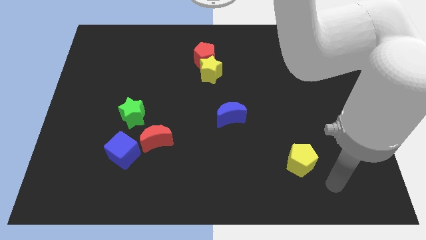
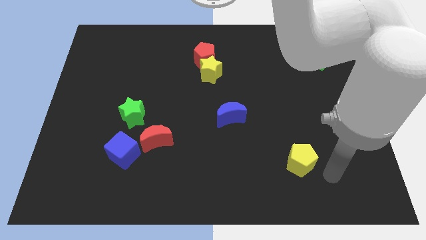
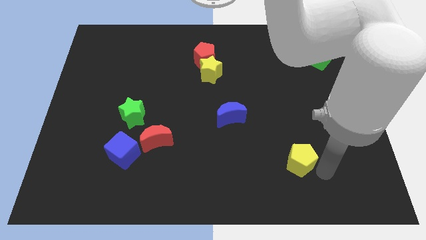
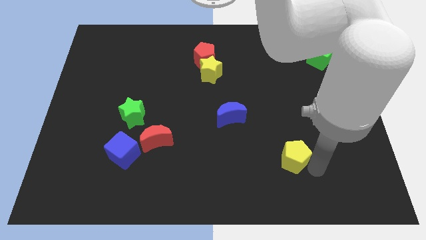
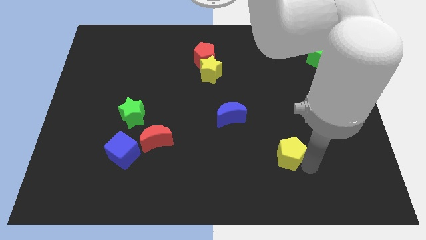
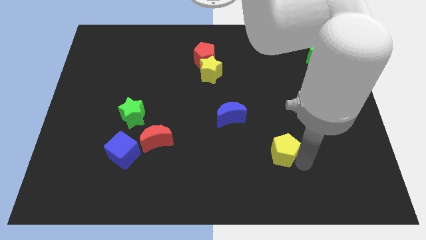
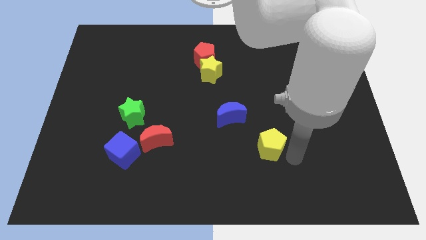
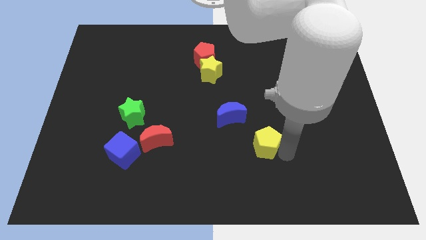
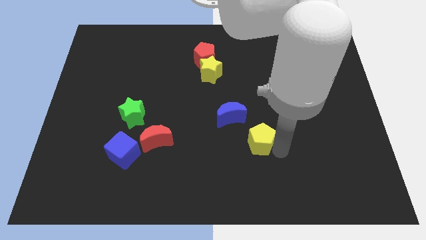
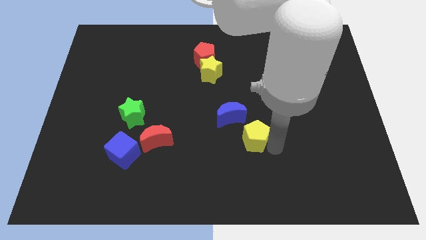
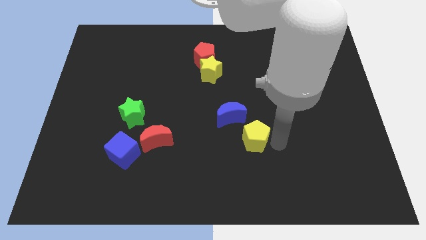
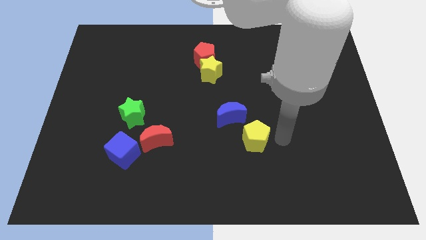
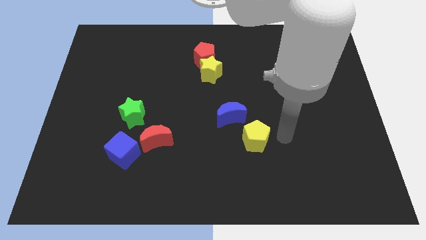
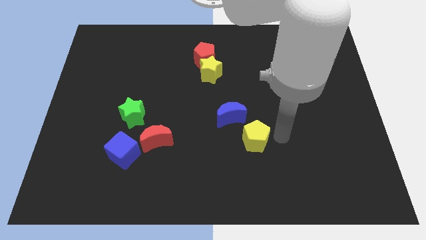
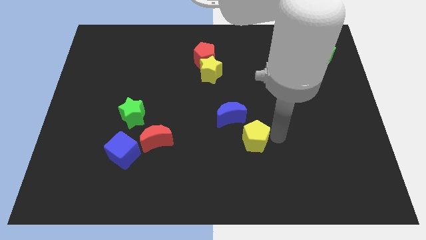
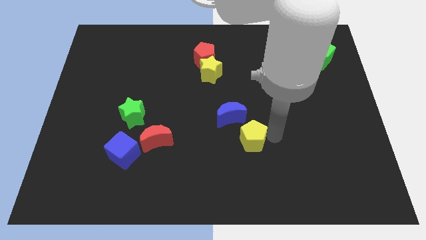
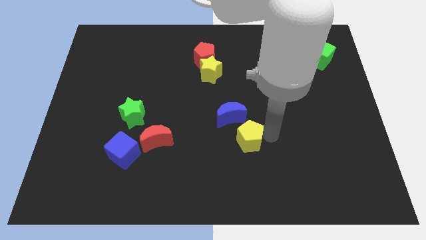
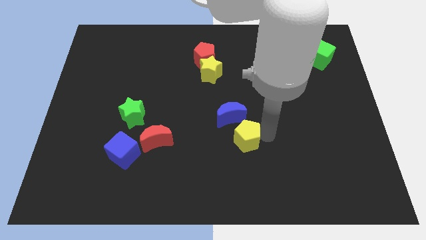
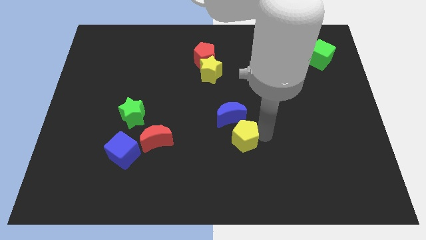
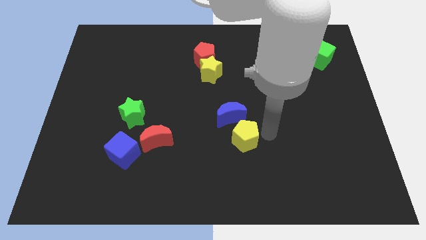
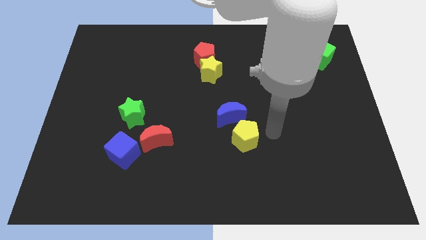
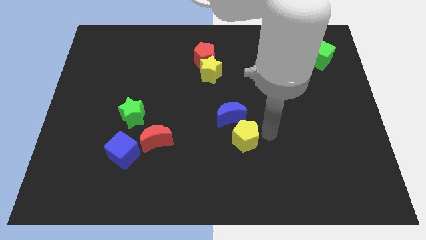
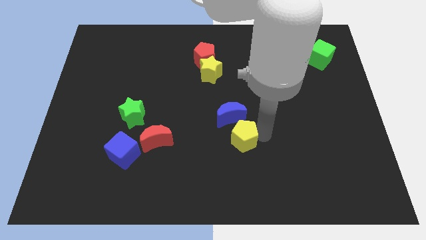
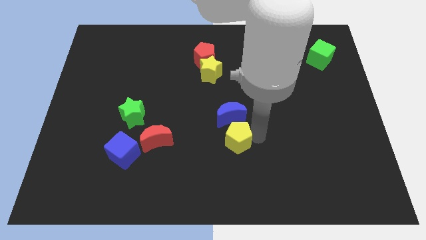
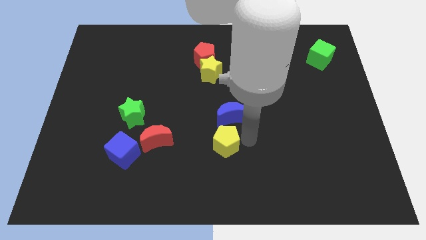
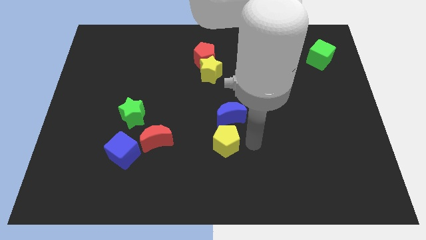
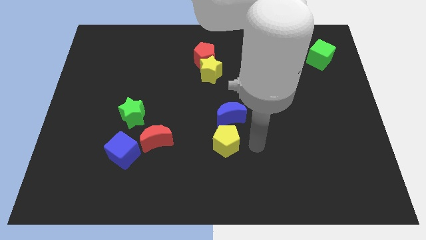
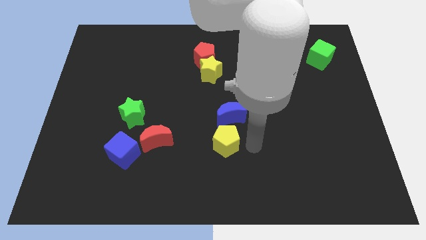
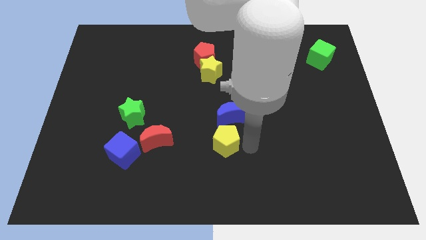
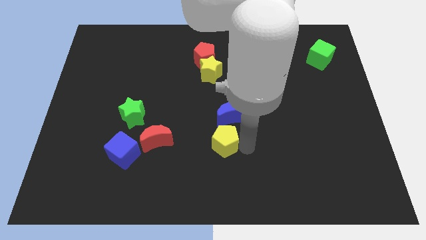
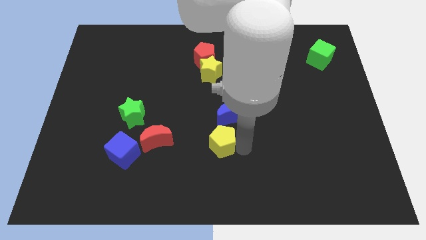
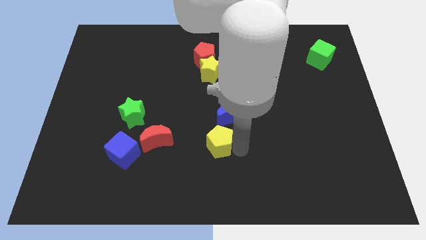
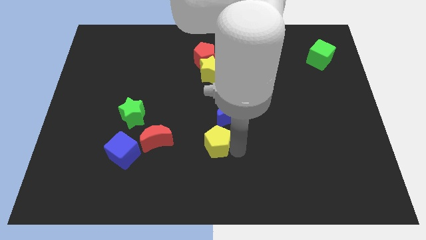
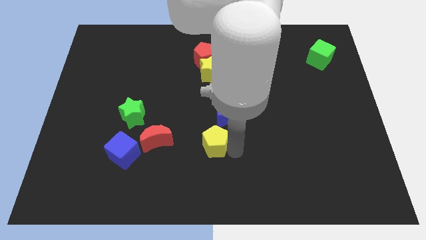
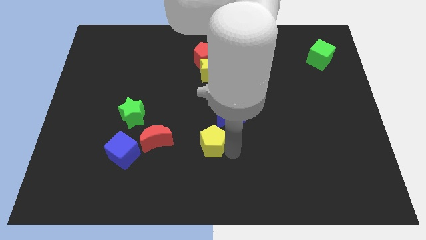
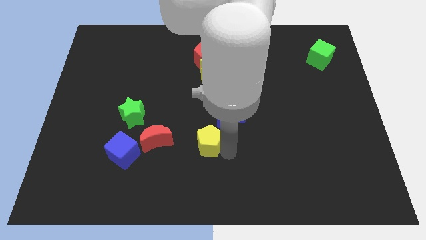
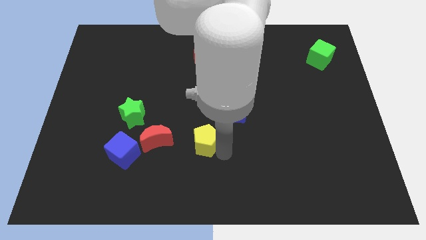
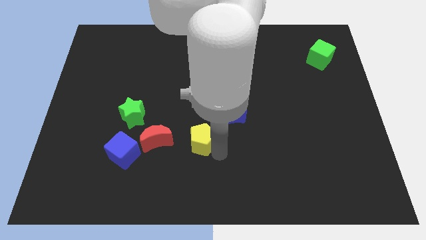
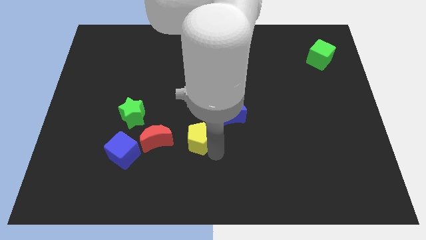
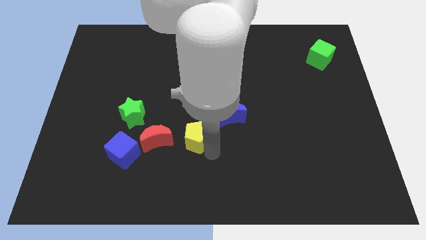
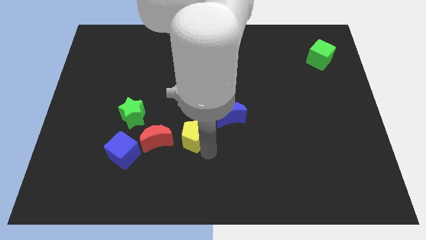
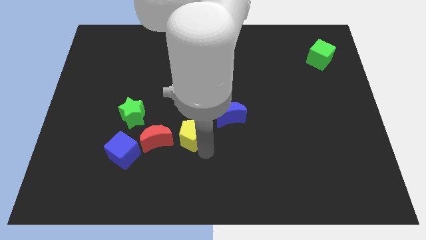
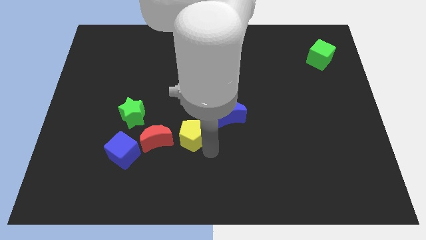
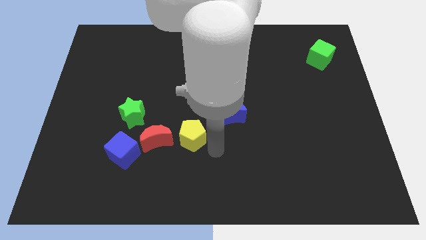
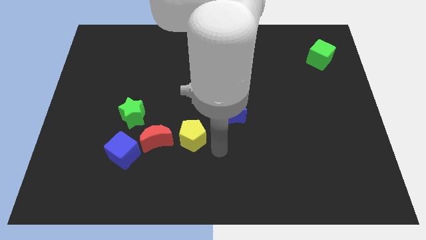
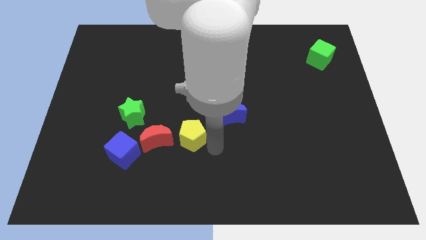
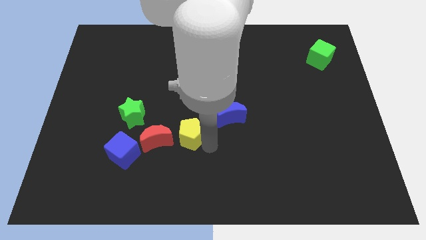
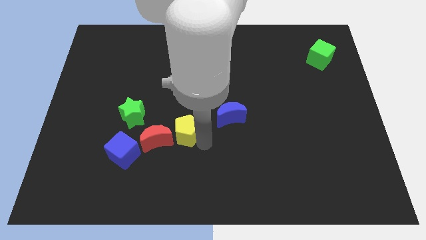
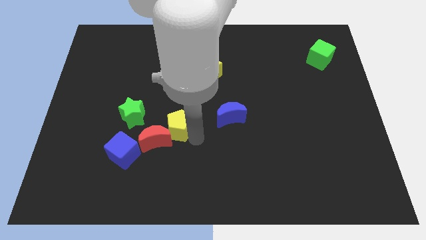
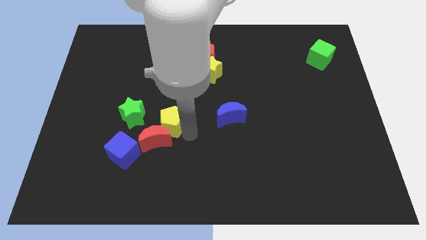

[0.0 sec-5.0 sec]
slide the yellow pentagon to the top right of the blue cube
